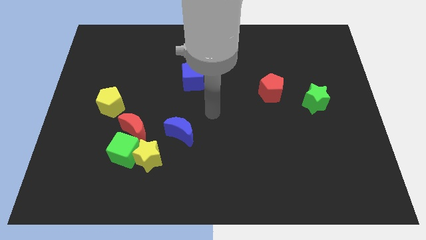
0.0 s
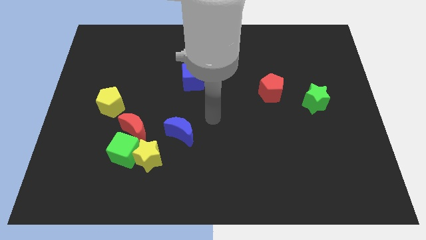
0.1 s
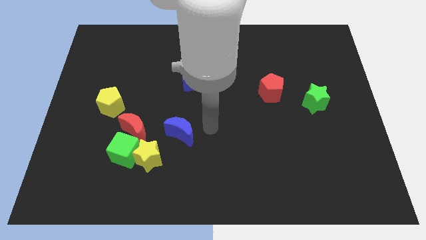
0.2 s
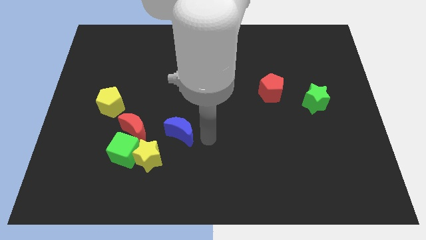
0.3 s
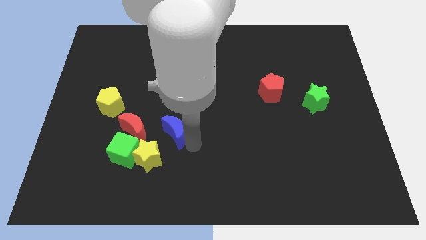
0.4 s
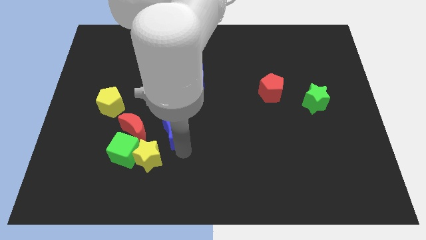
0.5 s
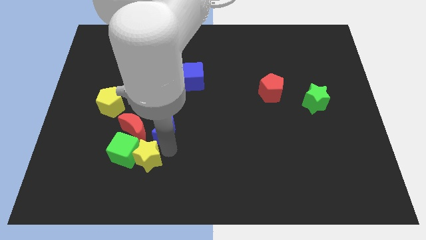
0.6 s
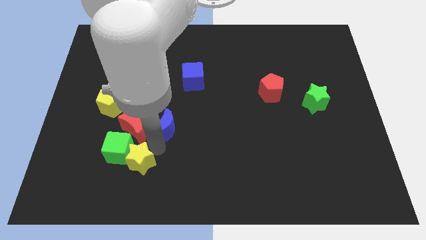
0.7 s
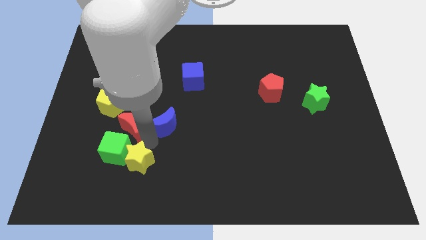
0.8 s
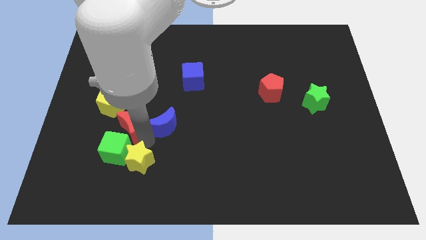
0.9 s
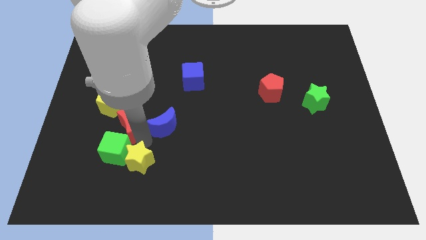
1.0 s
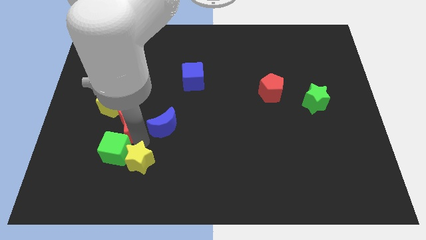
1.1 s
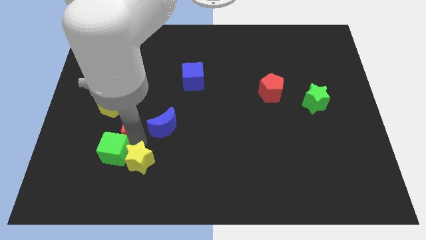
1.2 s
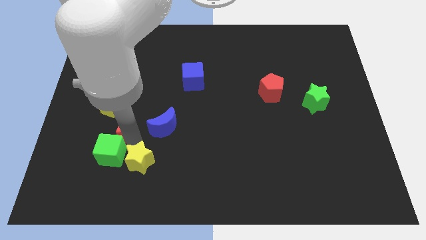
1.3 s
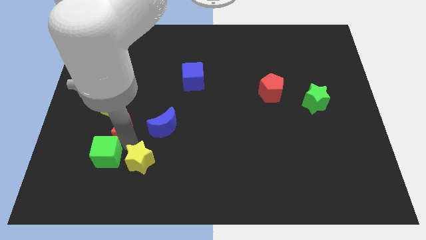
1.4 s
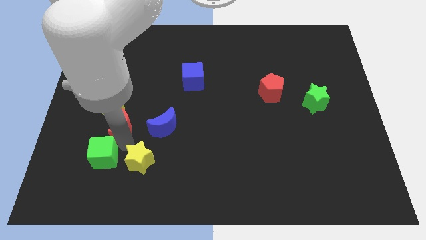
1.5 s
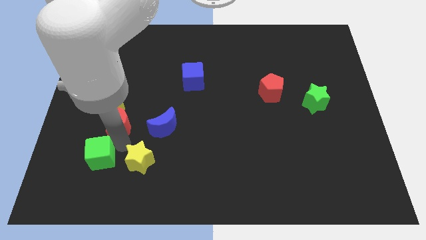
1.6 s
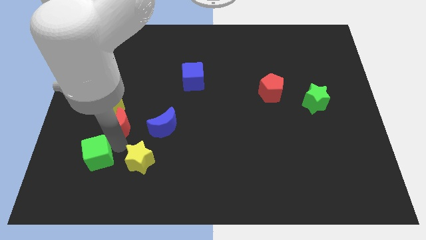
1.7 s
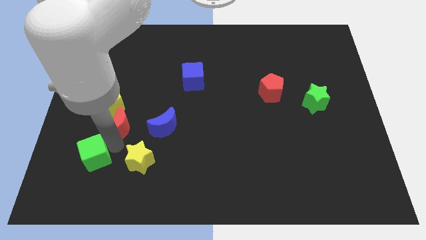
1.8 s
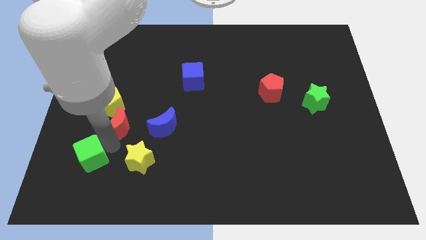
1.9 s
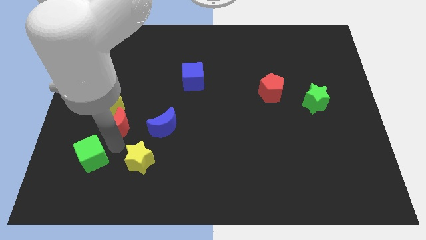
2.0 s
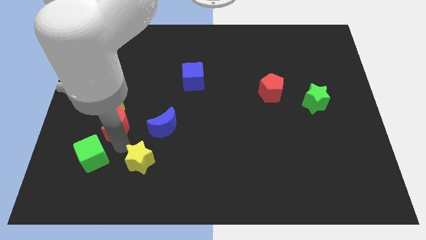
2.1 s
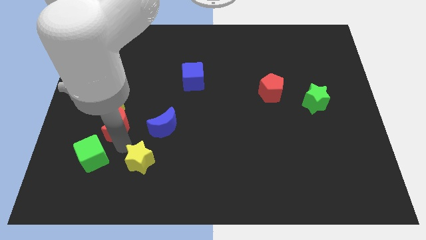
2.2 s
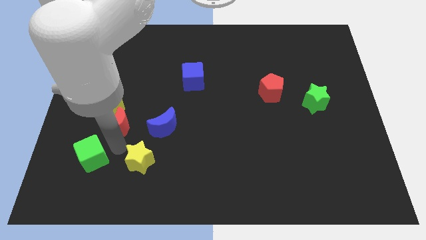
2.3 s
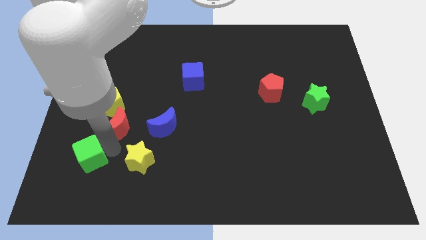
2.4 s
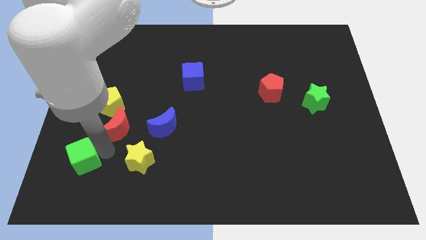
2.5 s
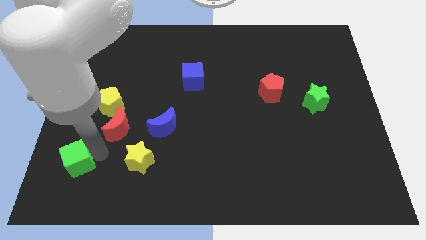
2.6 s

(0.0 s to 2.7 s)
pull the green cube apart from the yellow star and red moon

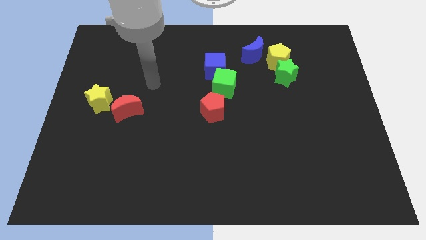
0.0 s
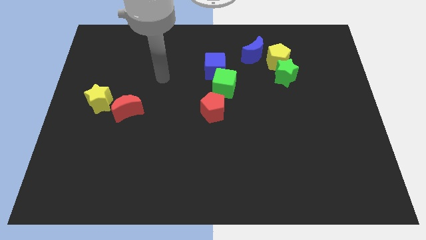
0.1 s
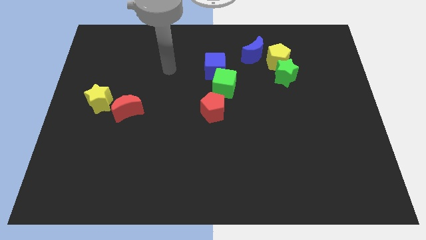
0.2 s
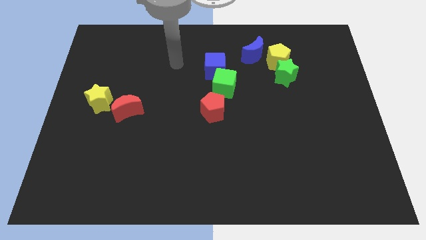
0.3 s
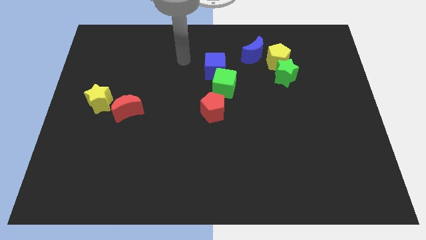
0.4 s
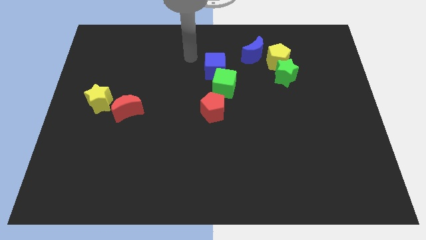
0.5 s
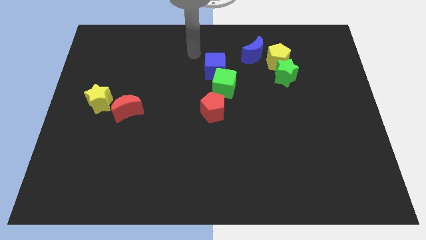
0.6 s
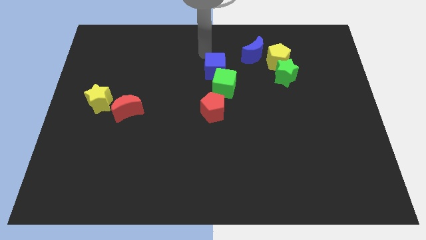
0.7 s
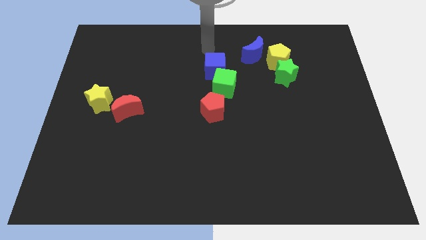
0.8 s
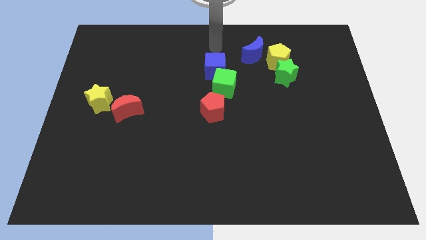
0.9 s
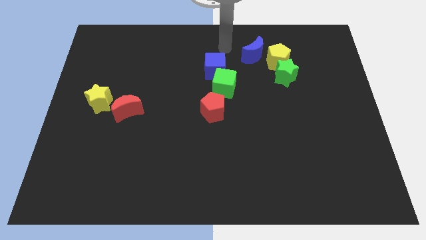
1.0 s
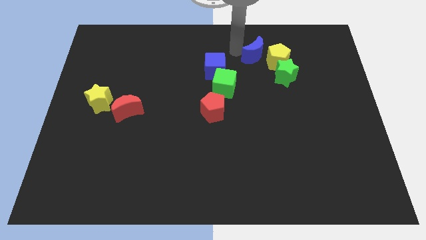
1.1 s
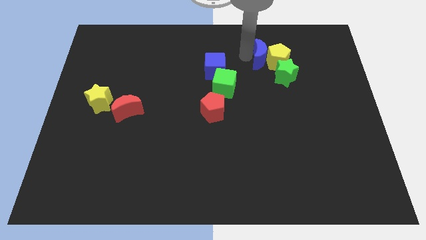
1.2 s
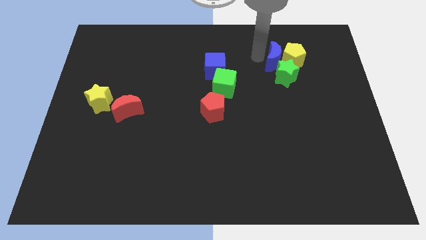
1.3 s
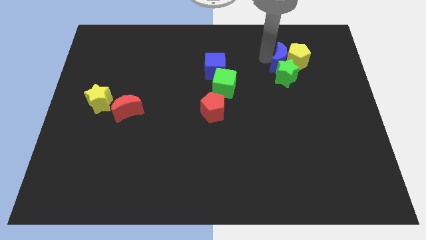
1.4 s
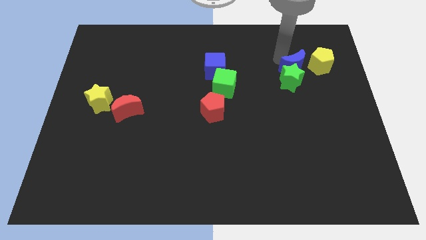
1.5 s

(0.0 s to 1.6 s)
move the green star away from the yellow pentagon

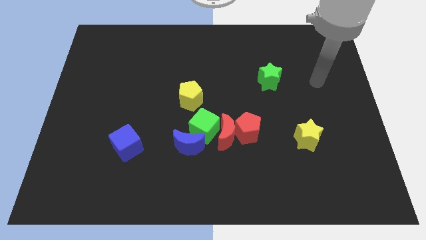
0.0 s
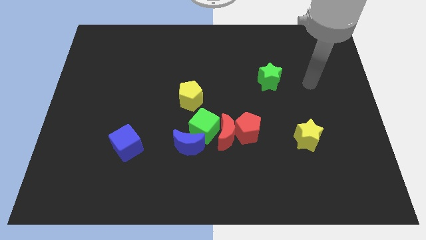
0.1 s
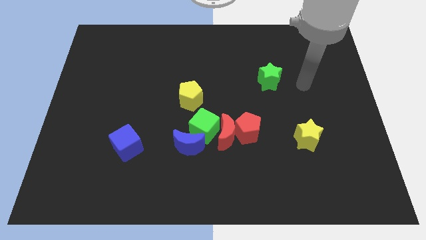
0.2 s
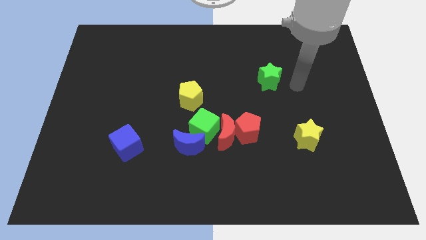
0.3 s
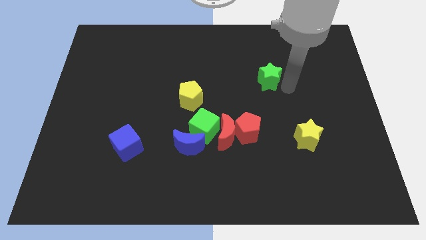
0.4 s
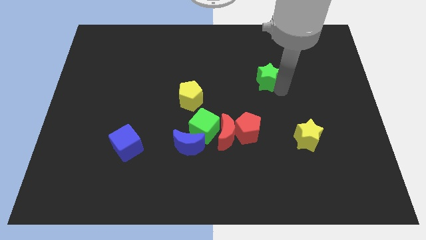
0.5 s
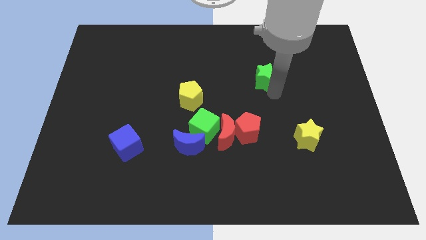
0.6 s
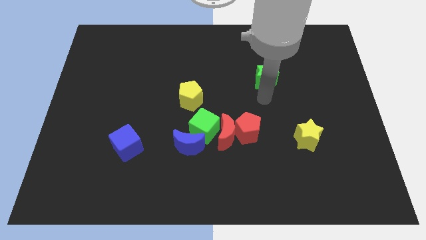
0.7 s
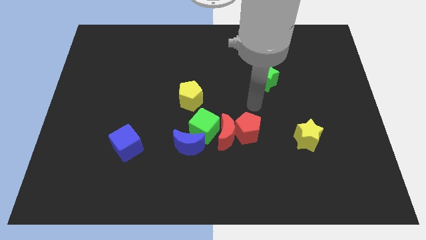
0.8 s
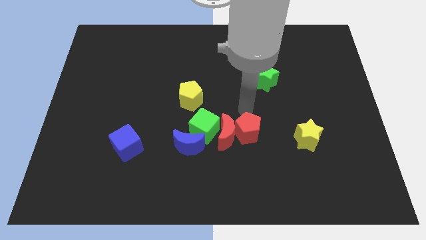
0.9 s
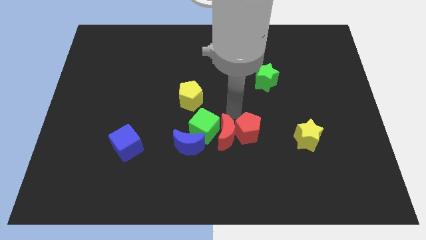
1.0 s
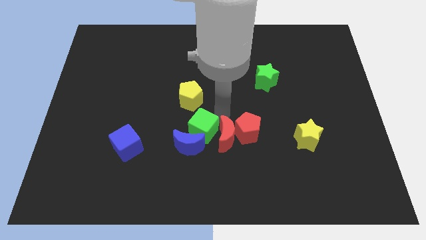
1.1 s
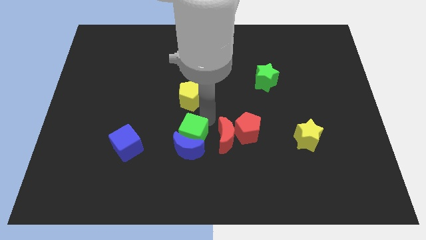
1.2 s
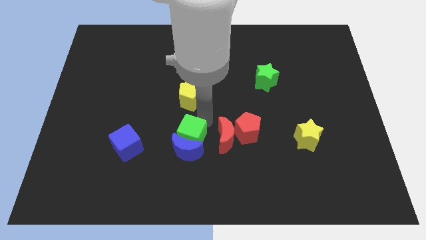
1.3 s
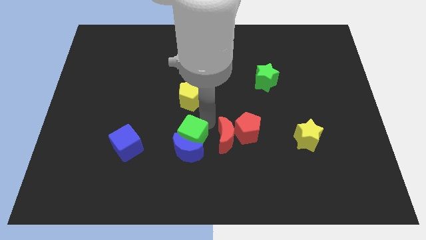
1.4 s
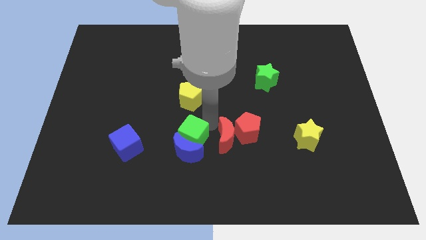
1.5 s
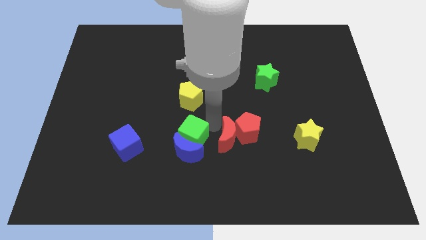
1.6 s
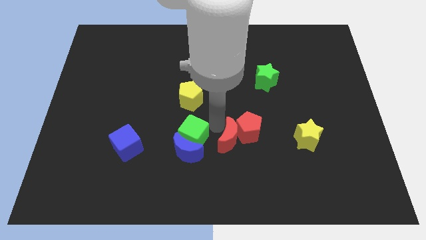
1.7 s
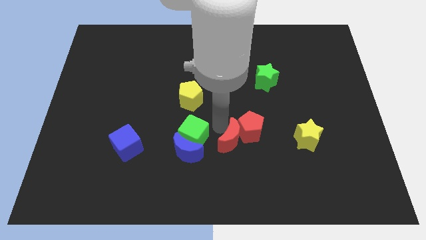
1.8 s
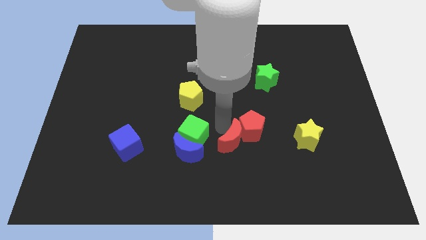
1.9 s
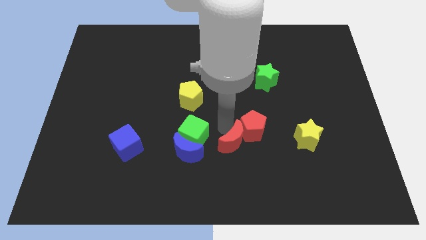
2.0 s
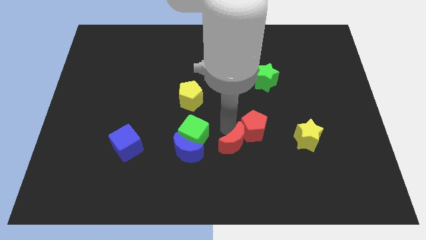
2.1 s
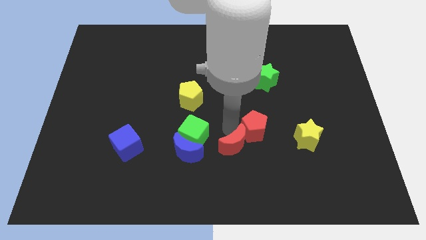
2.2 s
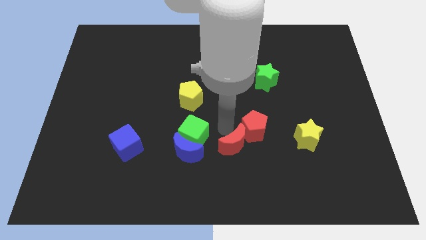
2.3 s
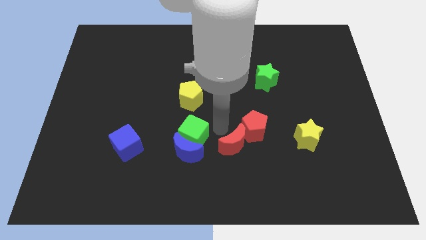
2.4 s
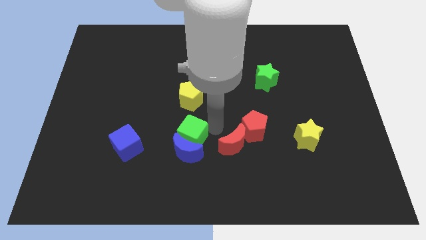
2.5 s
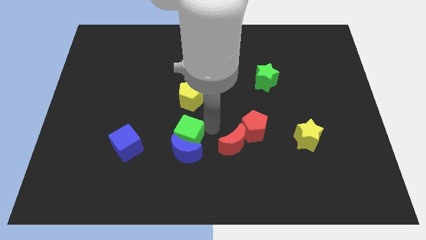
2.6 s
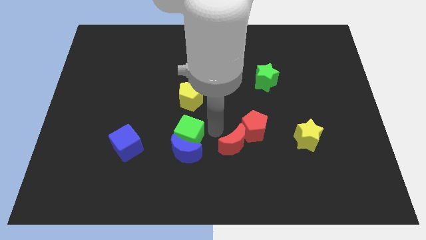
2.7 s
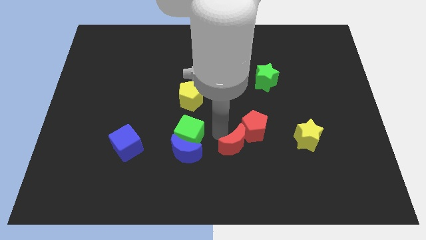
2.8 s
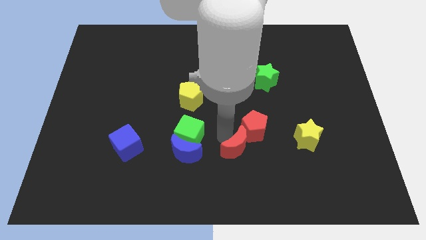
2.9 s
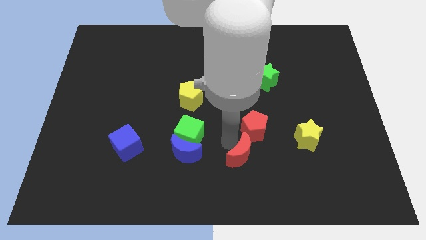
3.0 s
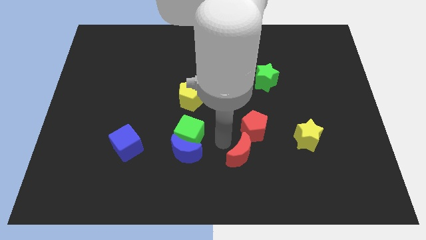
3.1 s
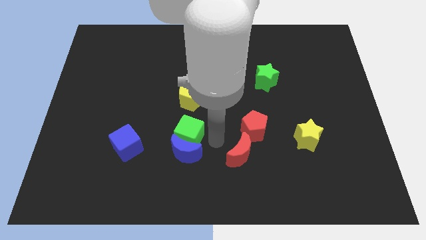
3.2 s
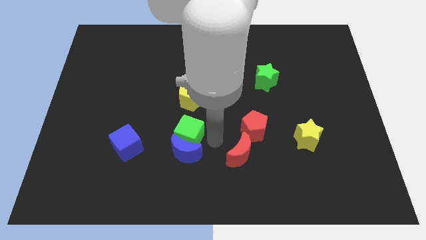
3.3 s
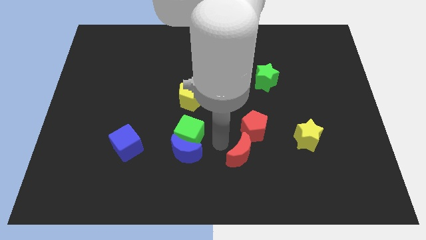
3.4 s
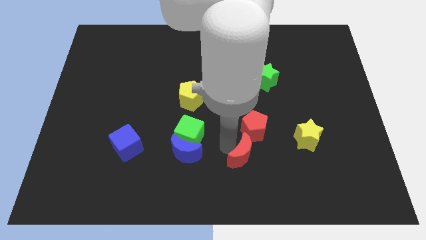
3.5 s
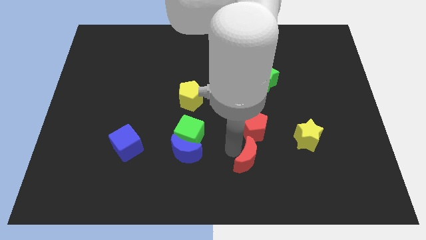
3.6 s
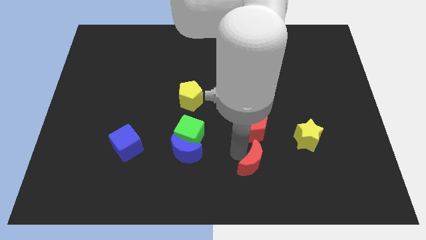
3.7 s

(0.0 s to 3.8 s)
separate the red moon from the red pentagon, green cube, and blue moon

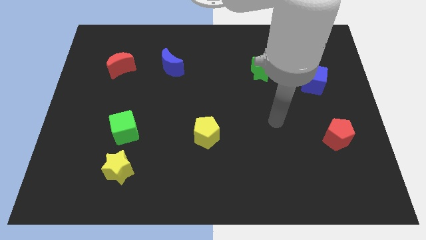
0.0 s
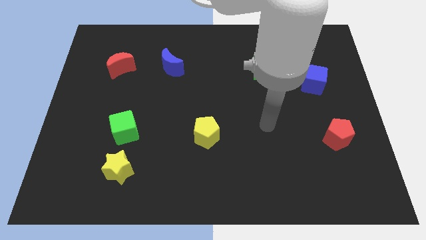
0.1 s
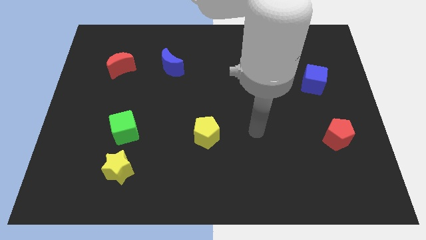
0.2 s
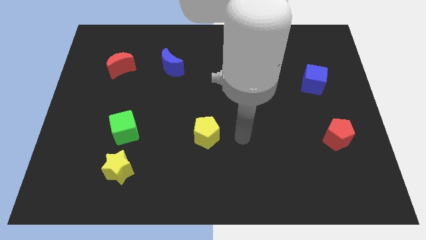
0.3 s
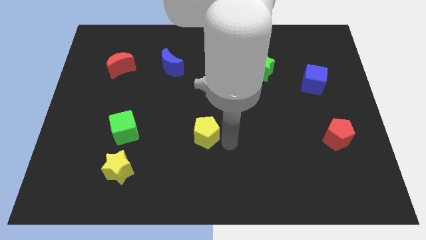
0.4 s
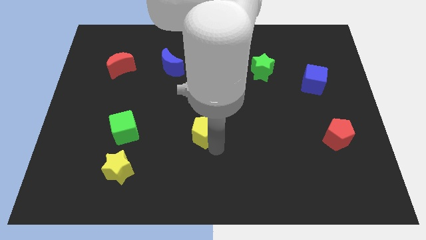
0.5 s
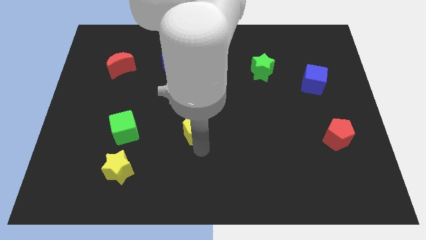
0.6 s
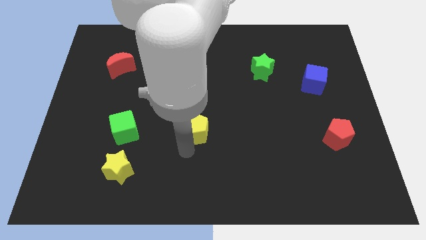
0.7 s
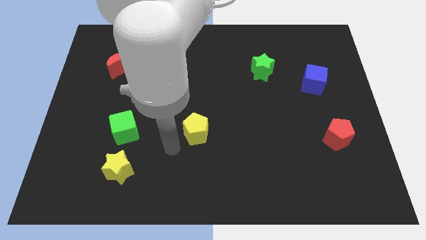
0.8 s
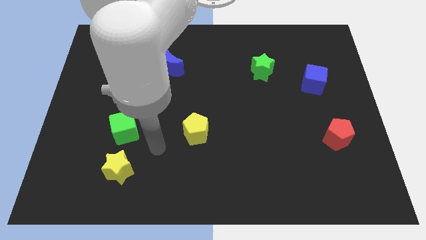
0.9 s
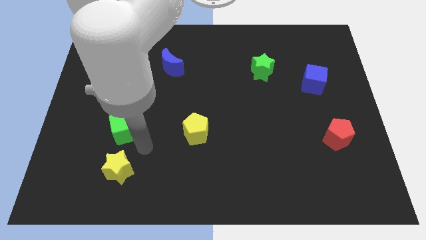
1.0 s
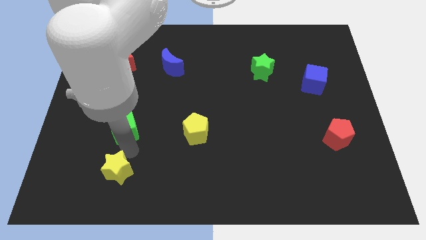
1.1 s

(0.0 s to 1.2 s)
pull the green cube apart from the yellow star

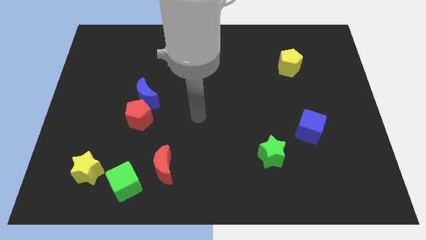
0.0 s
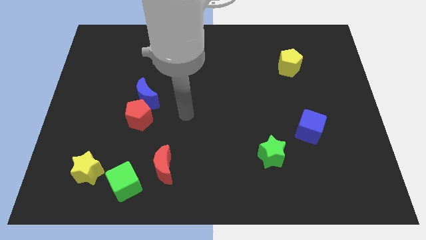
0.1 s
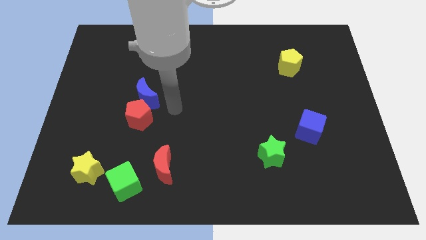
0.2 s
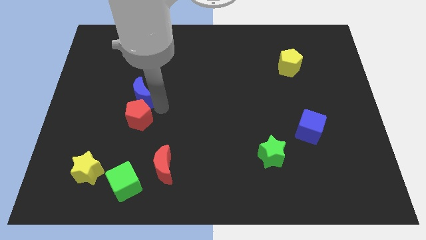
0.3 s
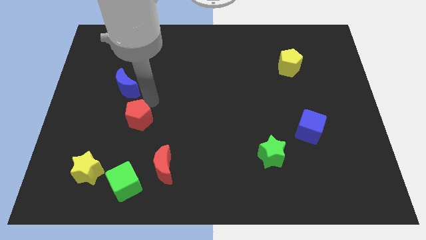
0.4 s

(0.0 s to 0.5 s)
move the red pentagon away from the blue moon
